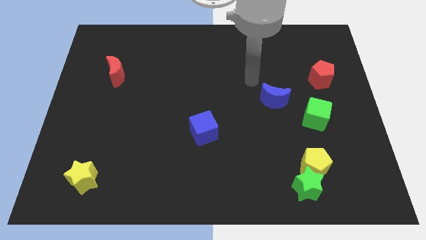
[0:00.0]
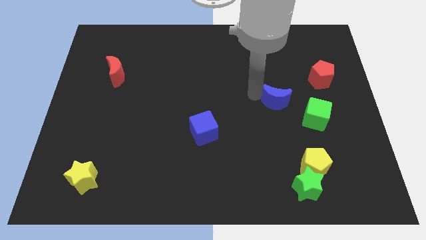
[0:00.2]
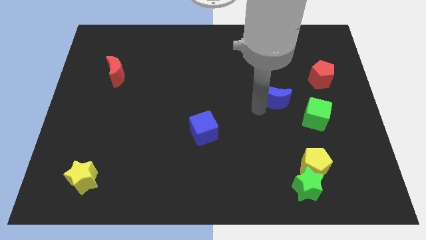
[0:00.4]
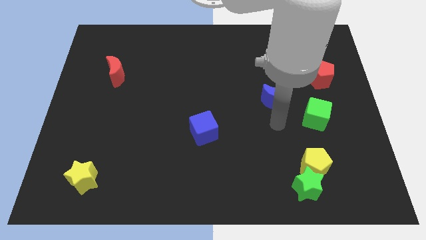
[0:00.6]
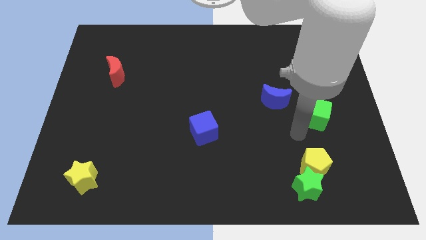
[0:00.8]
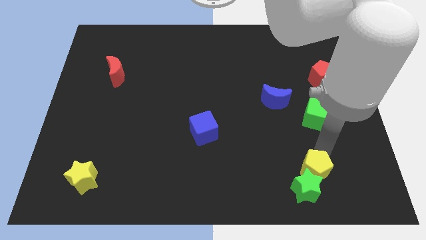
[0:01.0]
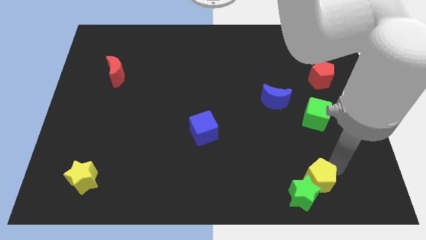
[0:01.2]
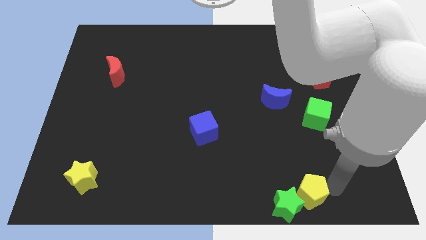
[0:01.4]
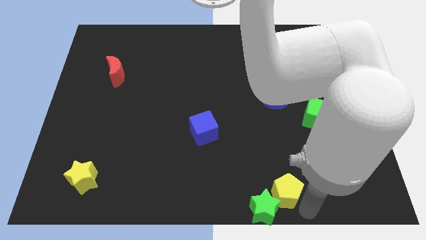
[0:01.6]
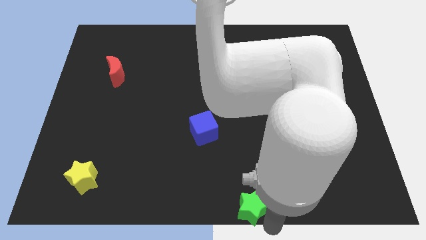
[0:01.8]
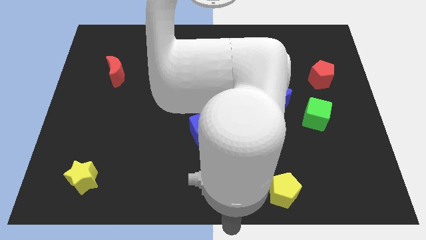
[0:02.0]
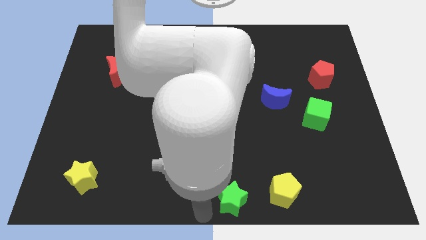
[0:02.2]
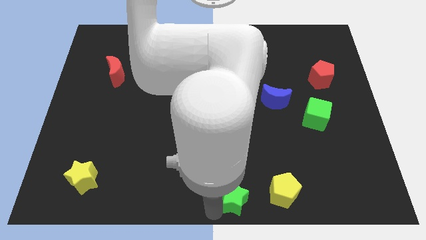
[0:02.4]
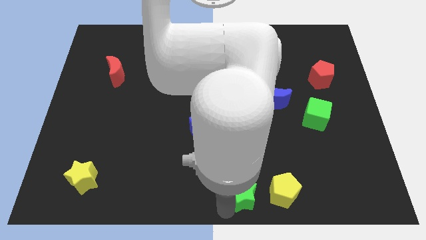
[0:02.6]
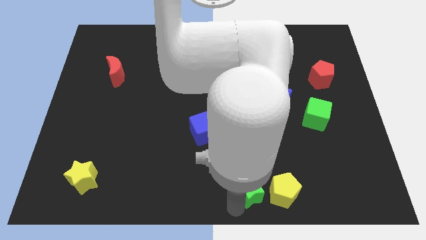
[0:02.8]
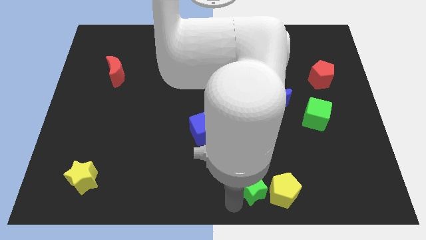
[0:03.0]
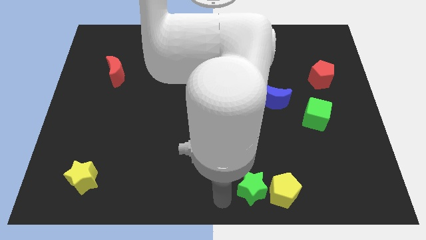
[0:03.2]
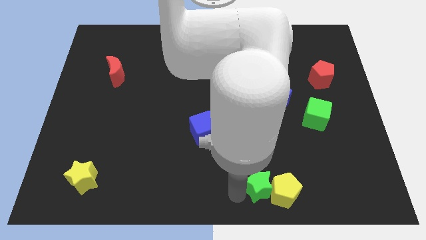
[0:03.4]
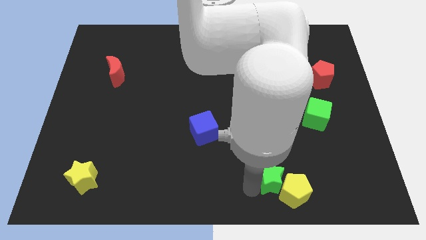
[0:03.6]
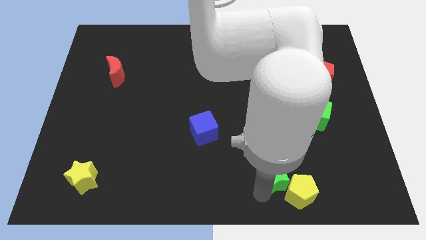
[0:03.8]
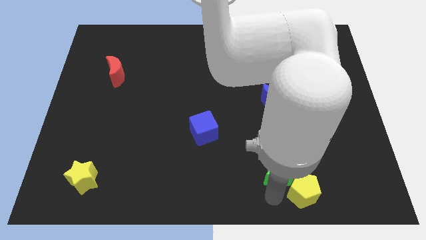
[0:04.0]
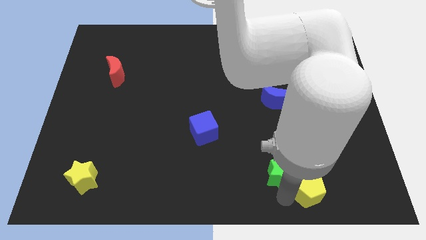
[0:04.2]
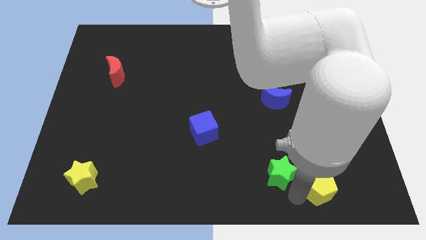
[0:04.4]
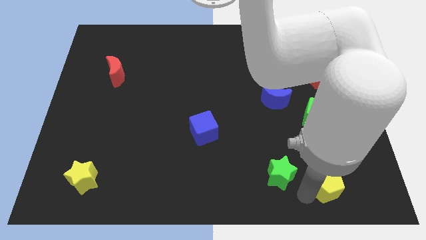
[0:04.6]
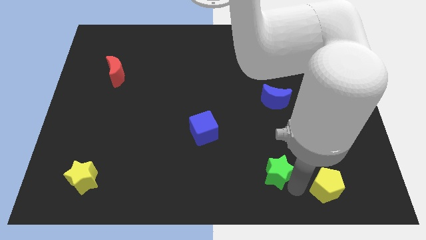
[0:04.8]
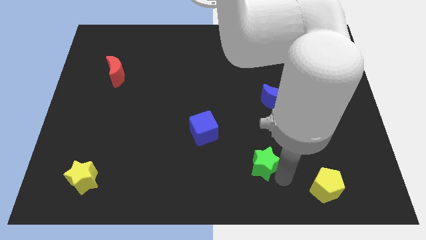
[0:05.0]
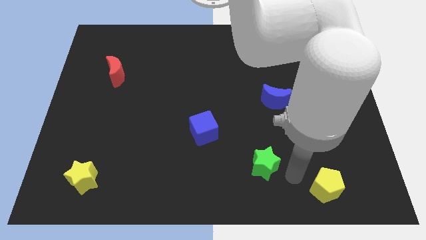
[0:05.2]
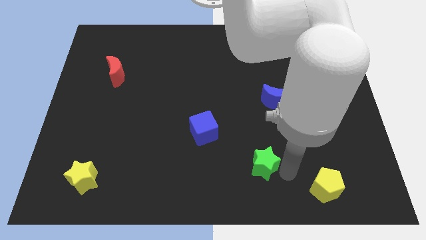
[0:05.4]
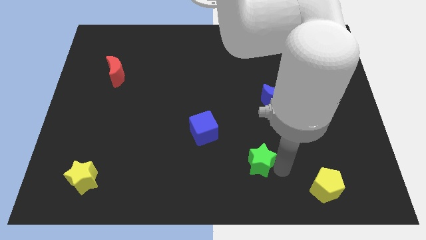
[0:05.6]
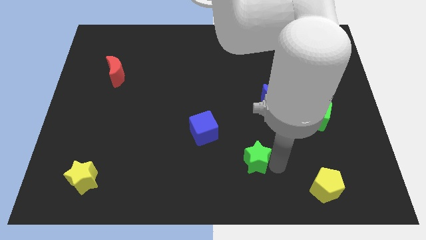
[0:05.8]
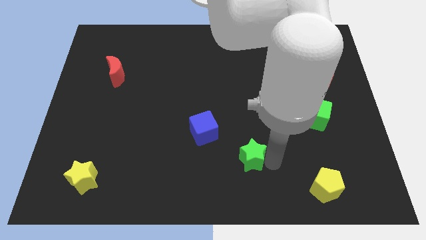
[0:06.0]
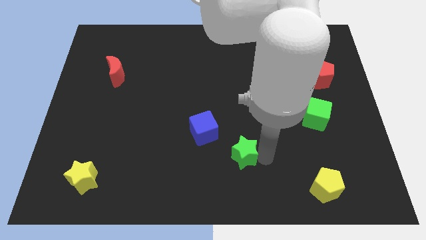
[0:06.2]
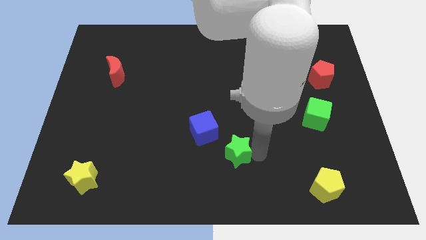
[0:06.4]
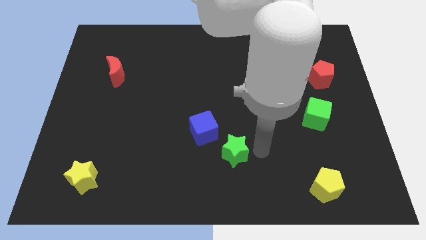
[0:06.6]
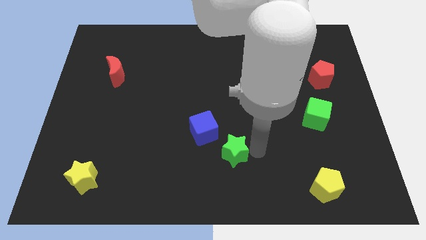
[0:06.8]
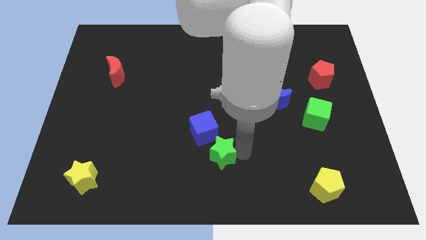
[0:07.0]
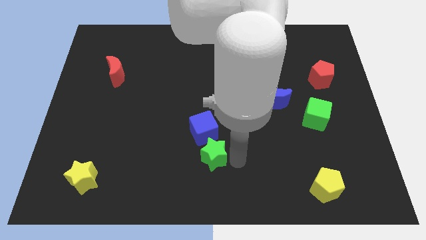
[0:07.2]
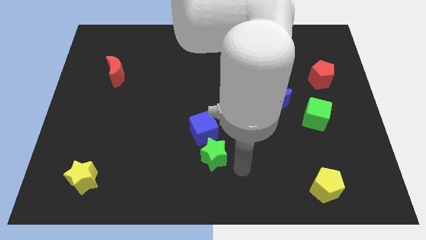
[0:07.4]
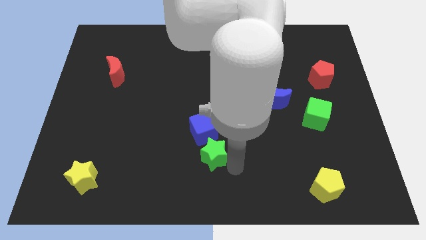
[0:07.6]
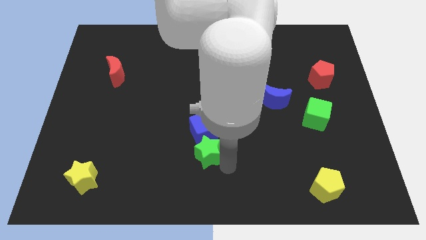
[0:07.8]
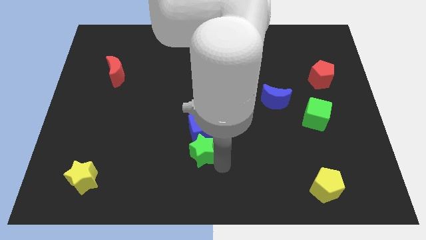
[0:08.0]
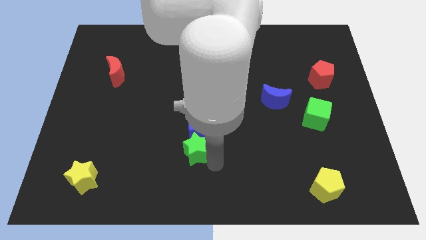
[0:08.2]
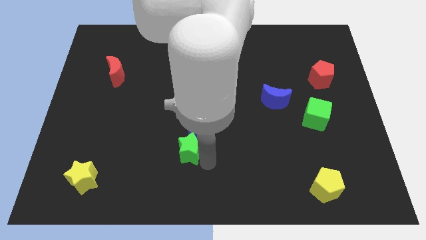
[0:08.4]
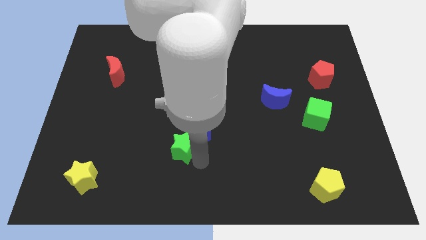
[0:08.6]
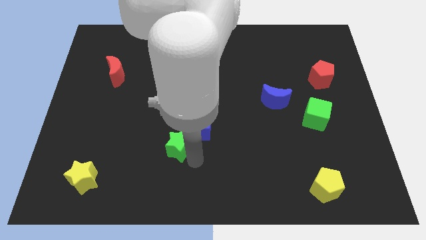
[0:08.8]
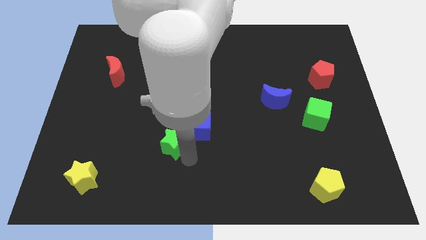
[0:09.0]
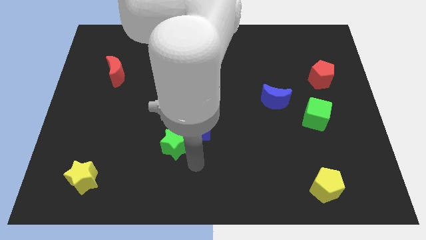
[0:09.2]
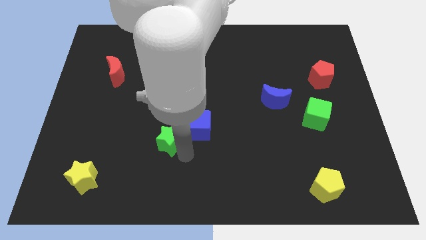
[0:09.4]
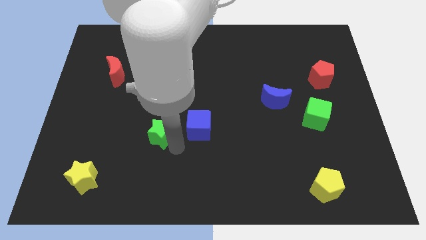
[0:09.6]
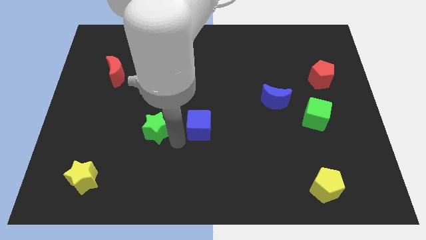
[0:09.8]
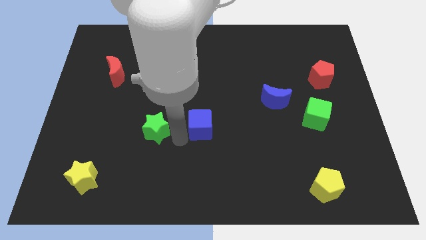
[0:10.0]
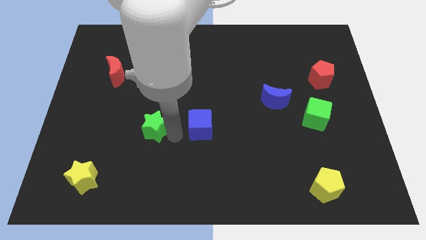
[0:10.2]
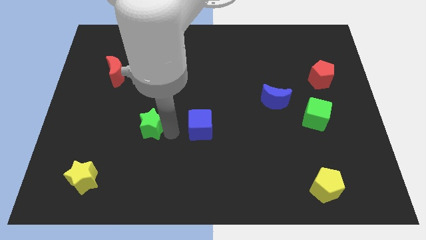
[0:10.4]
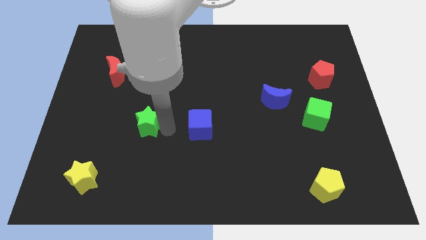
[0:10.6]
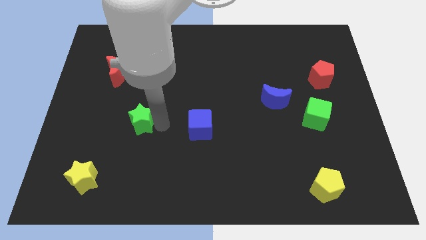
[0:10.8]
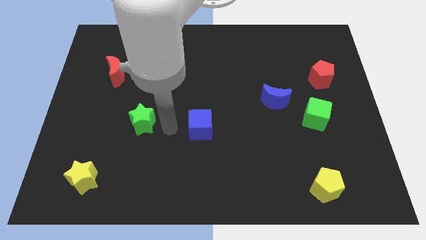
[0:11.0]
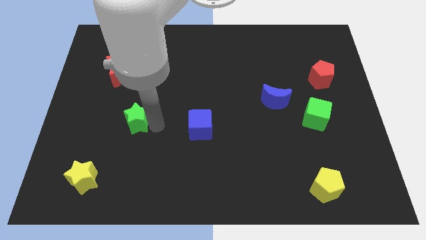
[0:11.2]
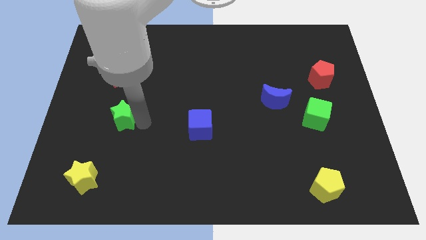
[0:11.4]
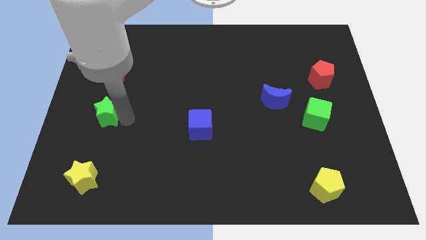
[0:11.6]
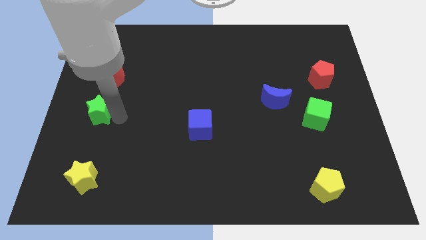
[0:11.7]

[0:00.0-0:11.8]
put the green star to the left side of the board
